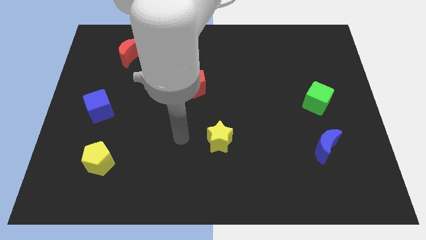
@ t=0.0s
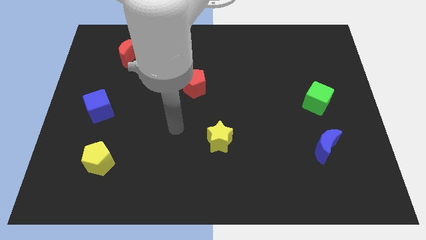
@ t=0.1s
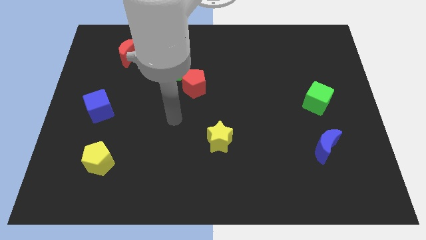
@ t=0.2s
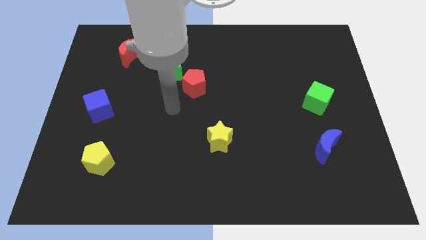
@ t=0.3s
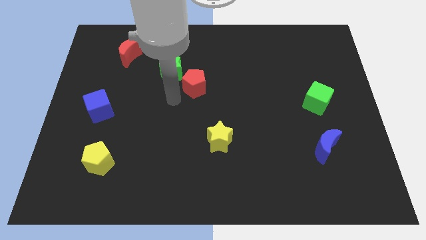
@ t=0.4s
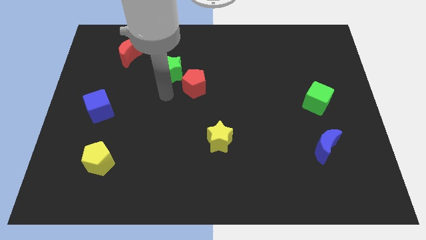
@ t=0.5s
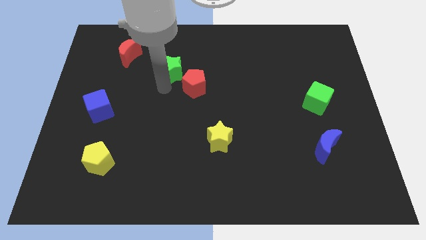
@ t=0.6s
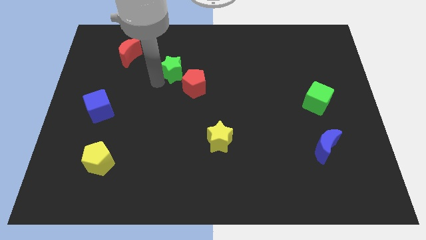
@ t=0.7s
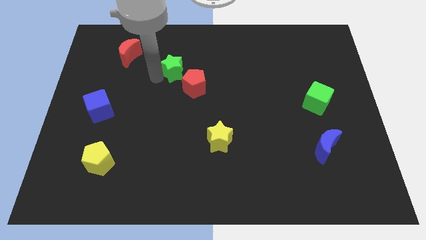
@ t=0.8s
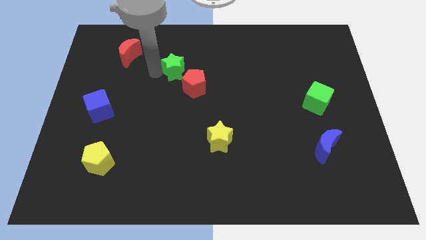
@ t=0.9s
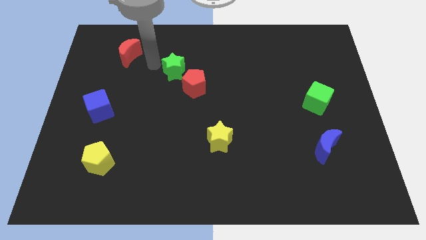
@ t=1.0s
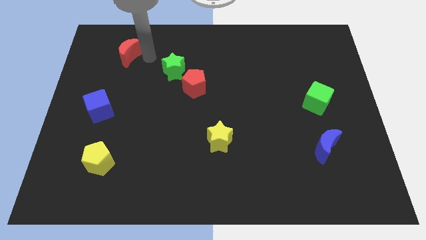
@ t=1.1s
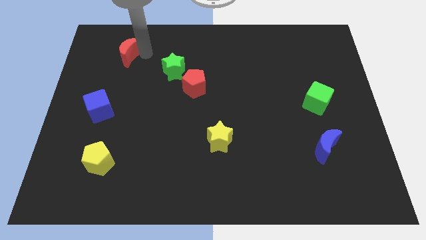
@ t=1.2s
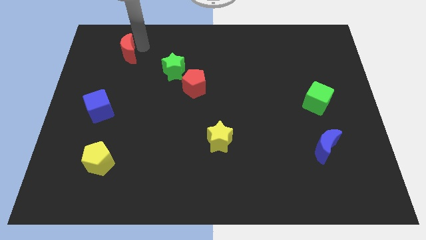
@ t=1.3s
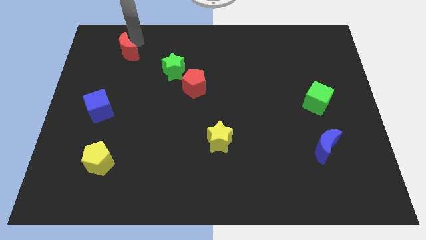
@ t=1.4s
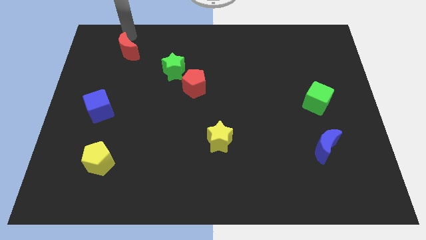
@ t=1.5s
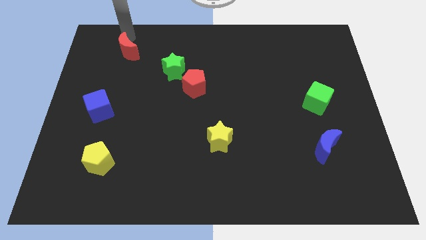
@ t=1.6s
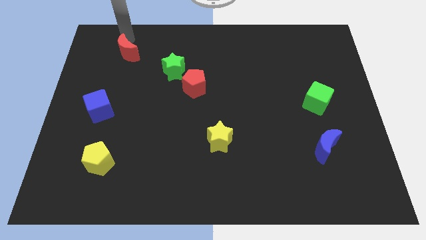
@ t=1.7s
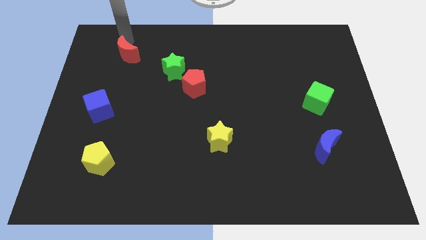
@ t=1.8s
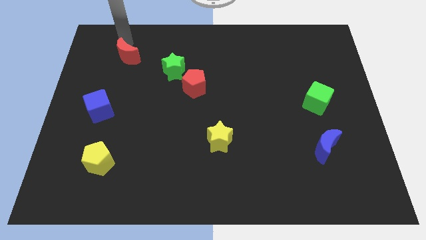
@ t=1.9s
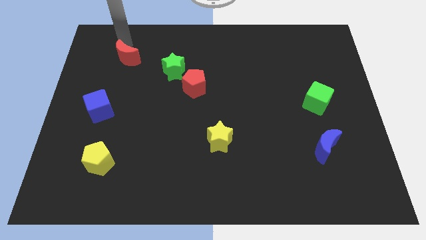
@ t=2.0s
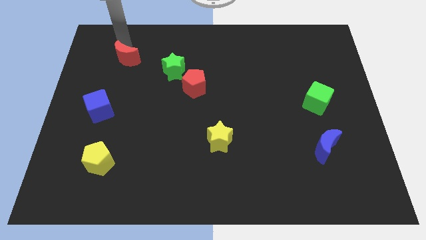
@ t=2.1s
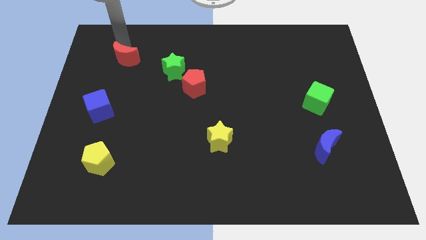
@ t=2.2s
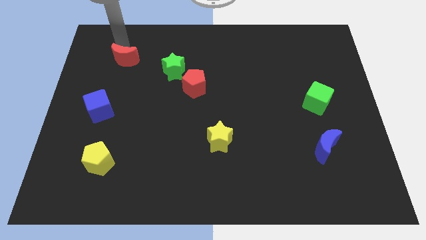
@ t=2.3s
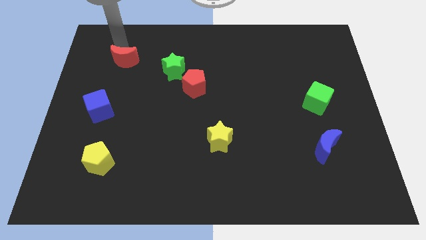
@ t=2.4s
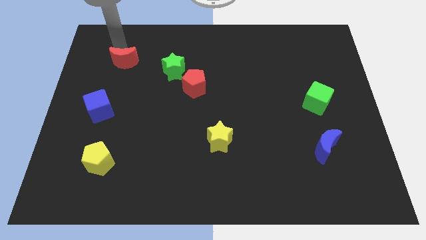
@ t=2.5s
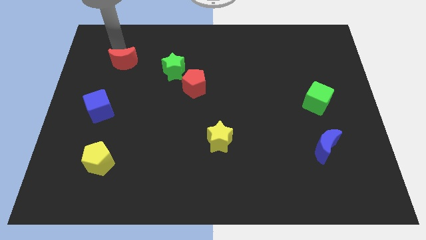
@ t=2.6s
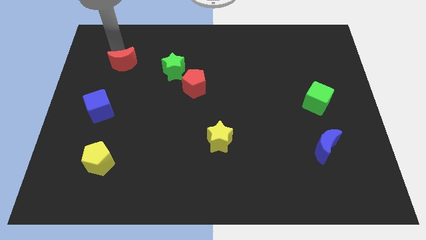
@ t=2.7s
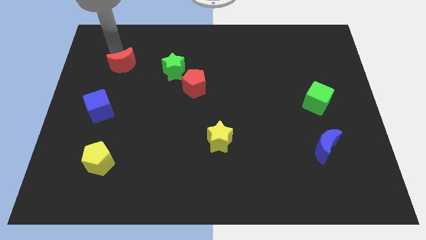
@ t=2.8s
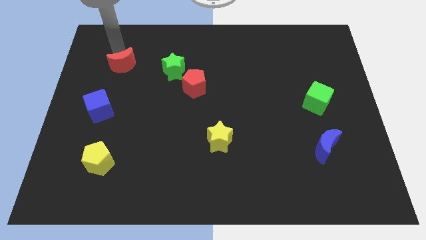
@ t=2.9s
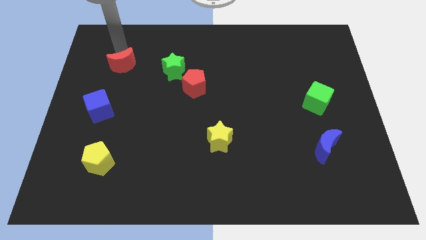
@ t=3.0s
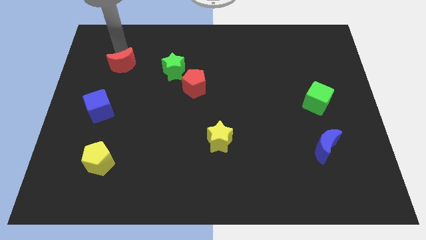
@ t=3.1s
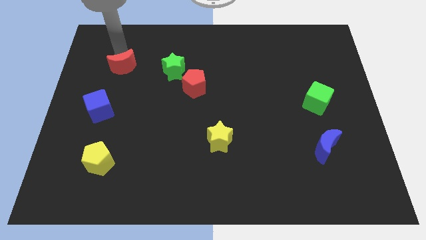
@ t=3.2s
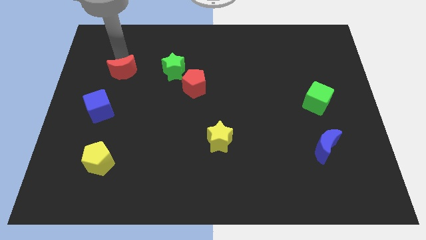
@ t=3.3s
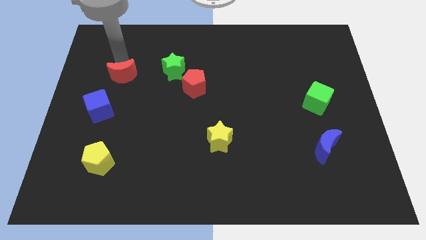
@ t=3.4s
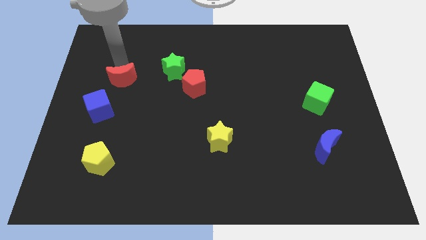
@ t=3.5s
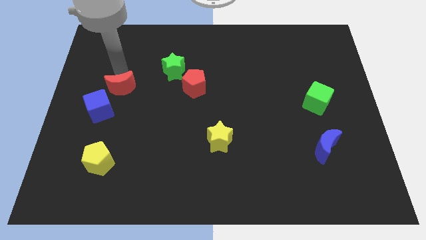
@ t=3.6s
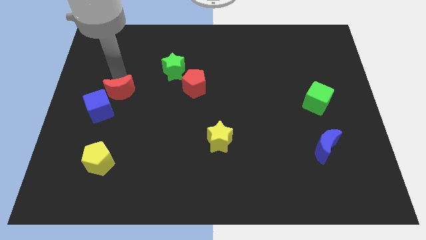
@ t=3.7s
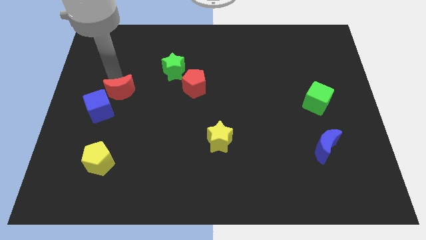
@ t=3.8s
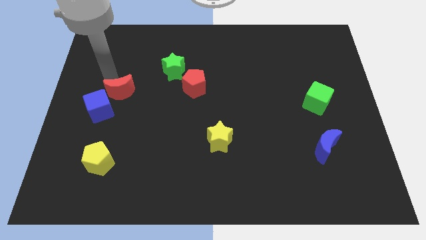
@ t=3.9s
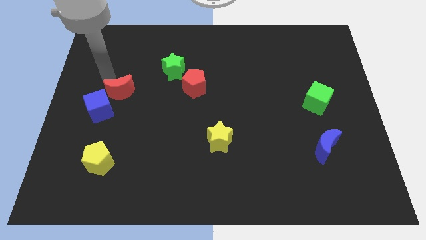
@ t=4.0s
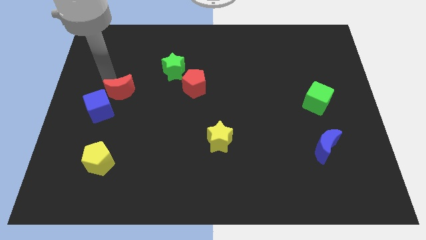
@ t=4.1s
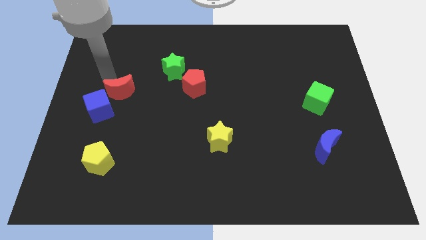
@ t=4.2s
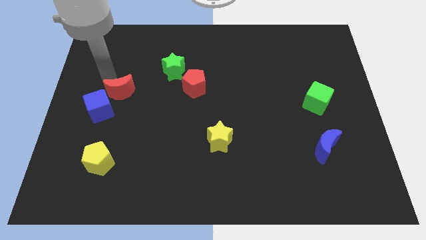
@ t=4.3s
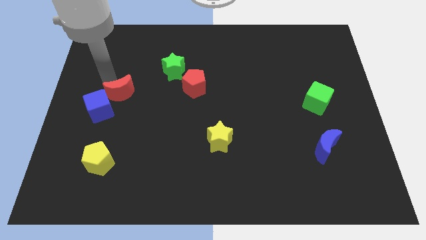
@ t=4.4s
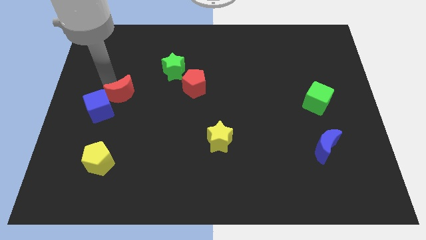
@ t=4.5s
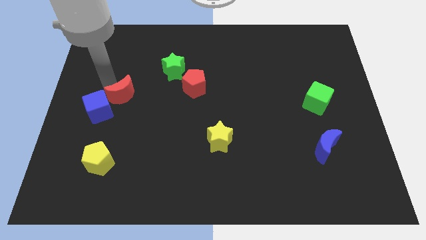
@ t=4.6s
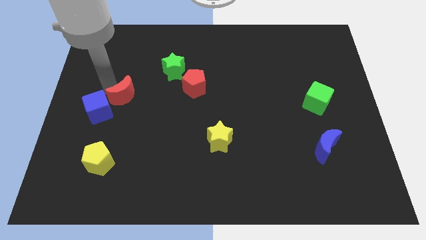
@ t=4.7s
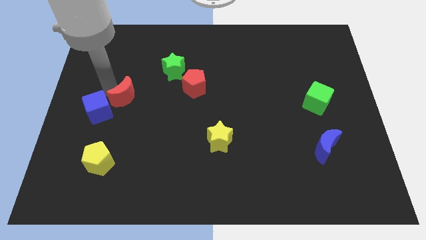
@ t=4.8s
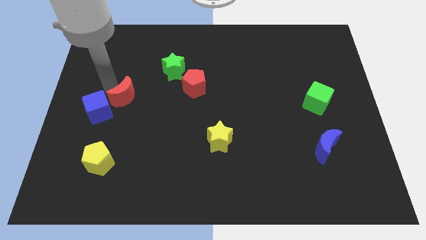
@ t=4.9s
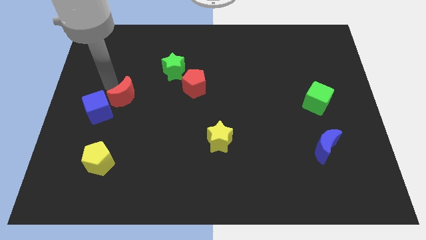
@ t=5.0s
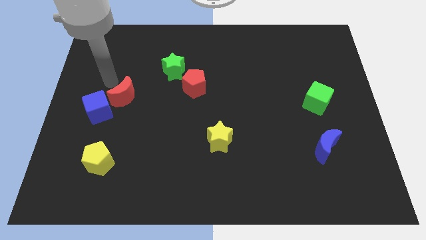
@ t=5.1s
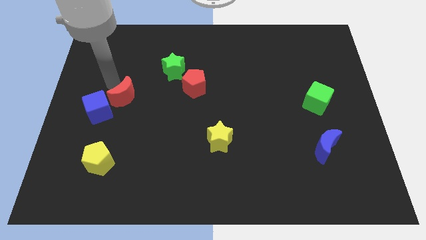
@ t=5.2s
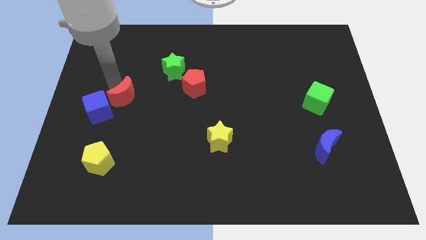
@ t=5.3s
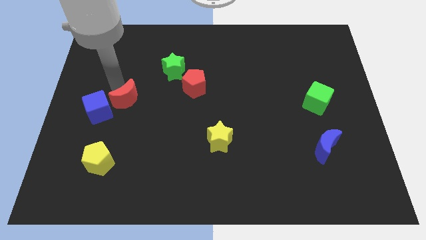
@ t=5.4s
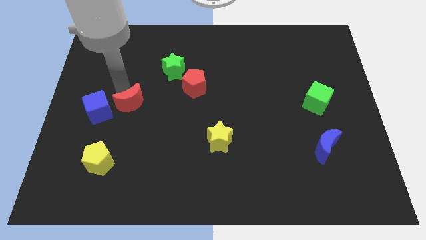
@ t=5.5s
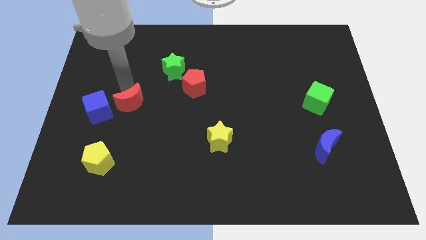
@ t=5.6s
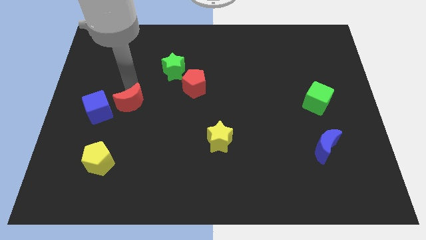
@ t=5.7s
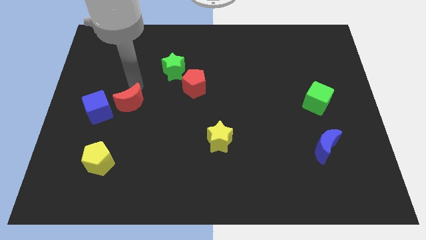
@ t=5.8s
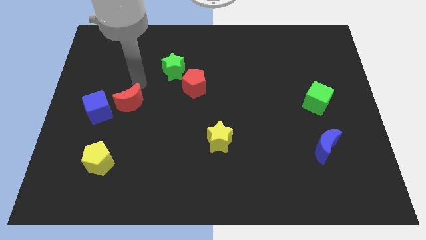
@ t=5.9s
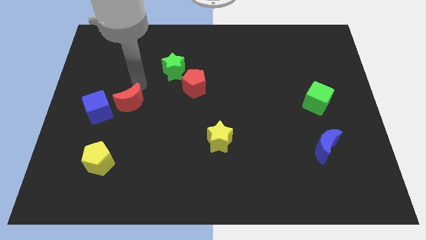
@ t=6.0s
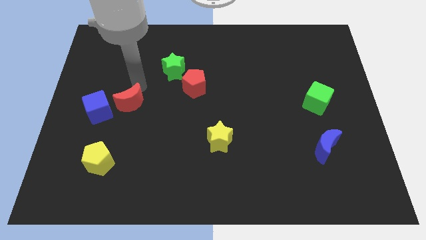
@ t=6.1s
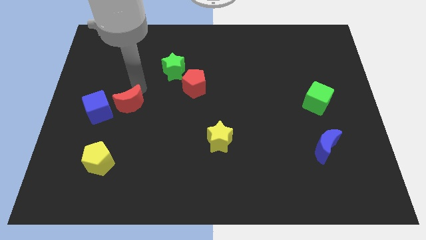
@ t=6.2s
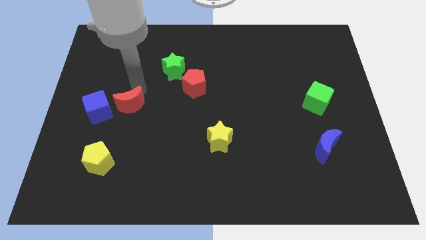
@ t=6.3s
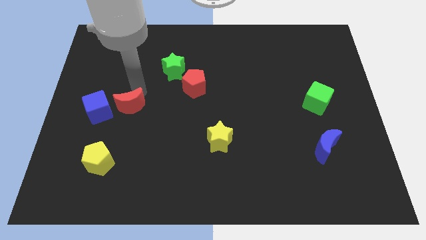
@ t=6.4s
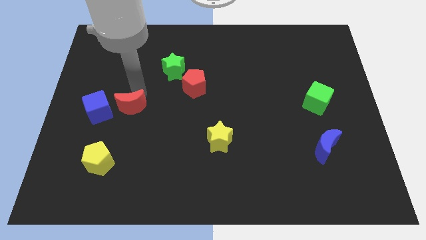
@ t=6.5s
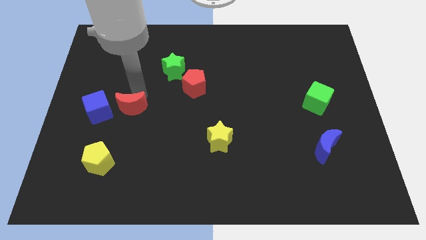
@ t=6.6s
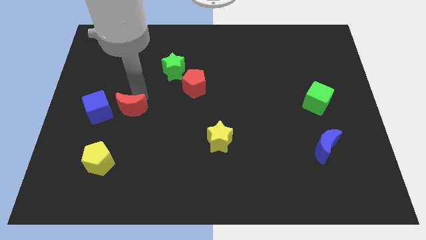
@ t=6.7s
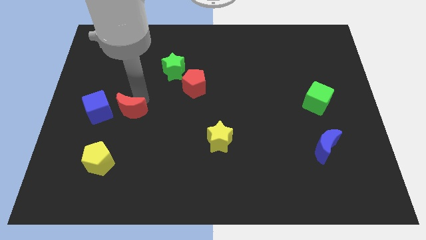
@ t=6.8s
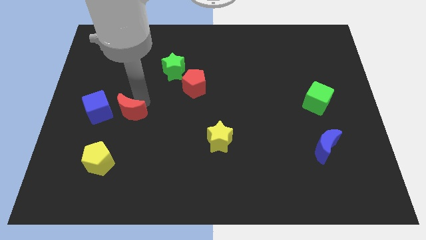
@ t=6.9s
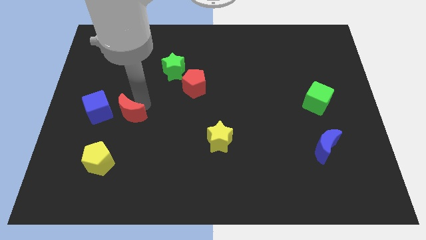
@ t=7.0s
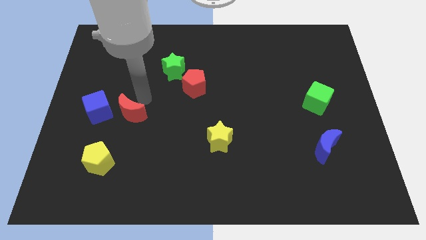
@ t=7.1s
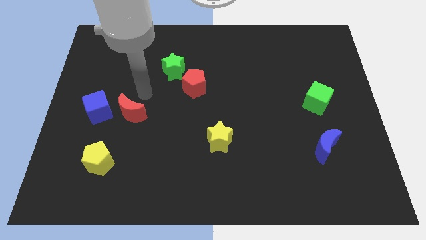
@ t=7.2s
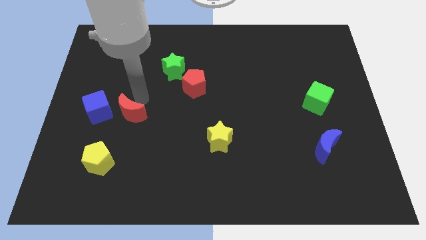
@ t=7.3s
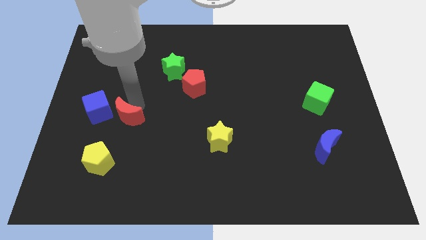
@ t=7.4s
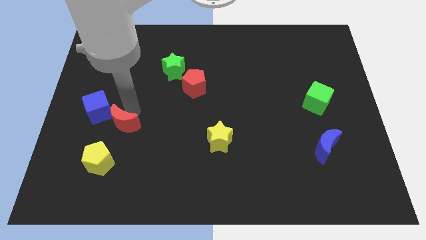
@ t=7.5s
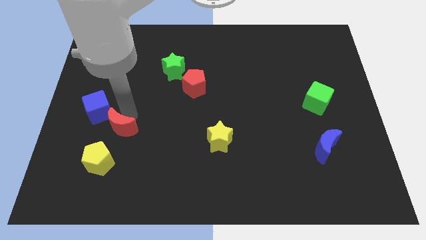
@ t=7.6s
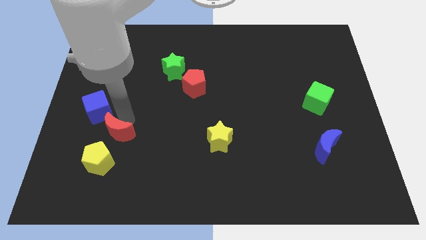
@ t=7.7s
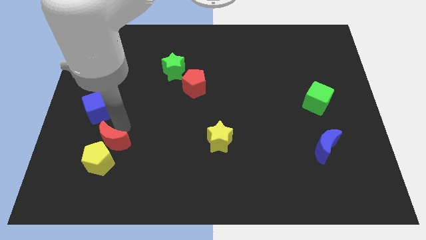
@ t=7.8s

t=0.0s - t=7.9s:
put the red moon to the yellow pentagon
